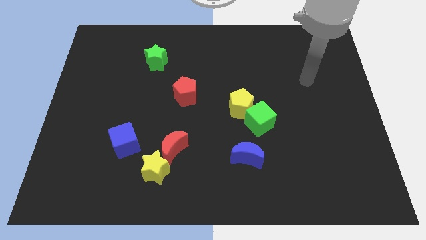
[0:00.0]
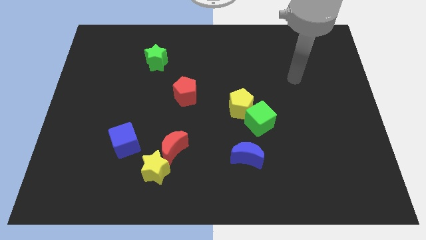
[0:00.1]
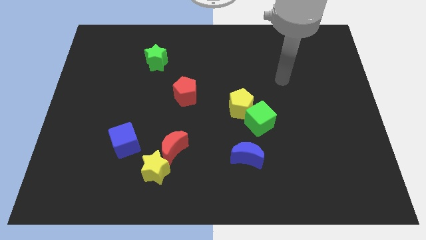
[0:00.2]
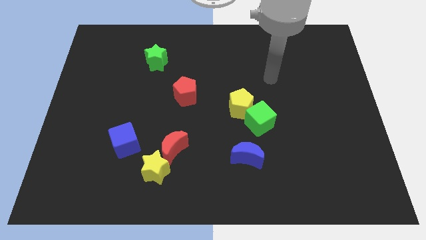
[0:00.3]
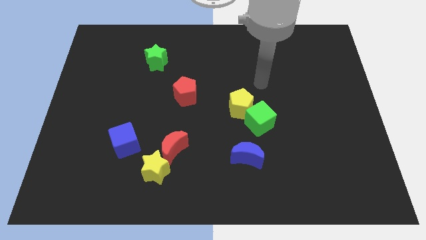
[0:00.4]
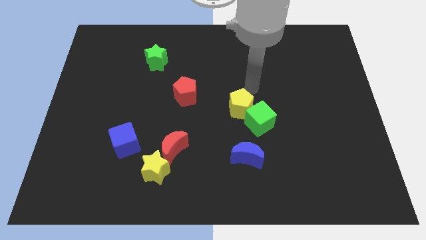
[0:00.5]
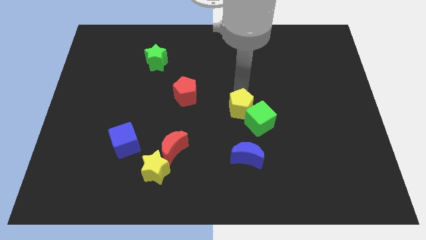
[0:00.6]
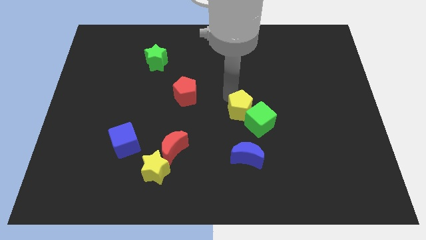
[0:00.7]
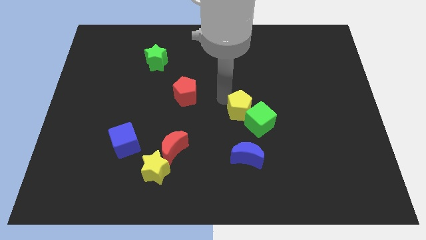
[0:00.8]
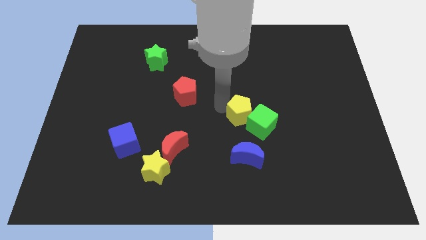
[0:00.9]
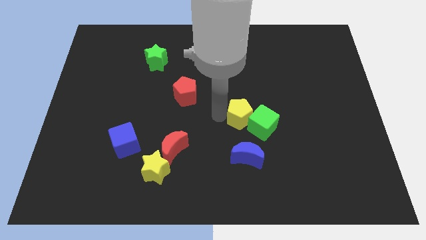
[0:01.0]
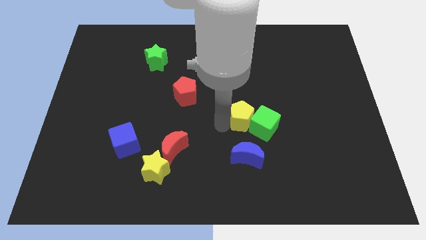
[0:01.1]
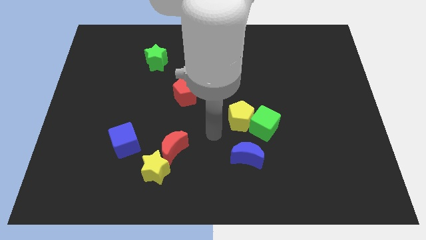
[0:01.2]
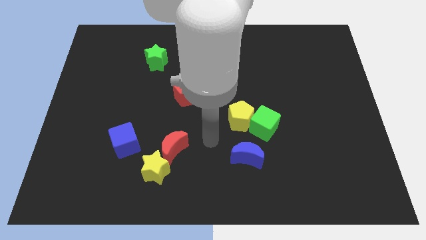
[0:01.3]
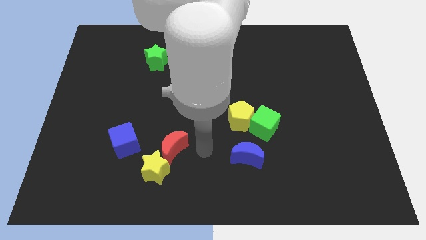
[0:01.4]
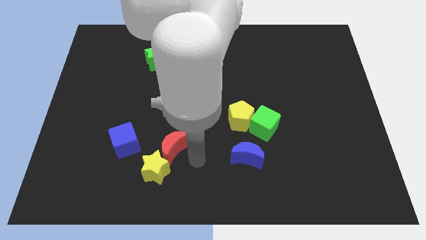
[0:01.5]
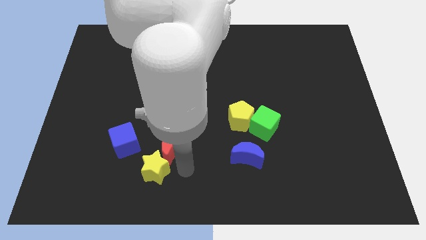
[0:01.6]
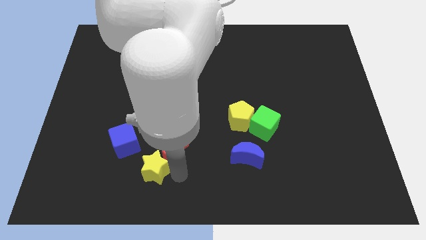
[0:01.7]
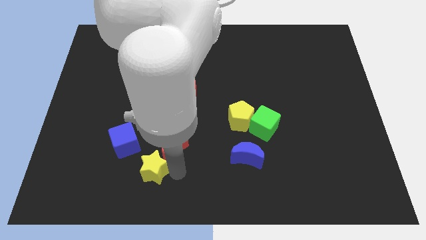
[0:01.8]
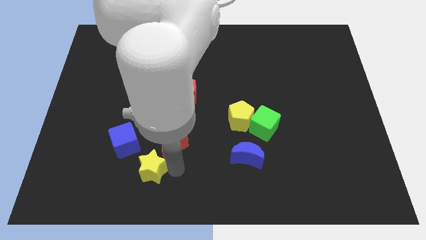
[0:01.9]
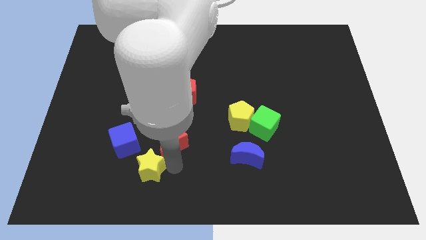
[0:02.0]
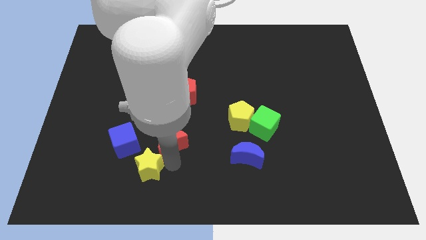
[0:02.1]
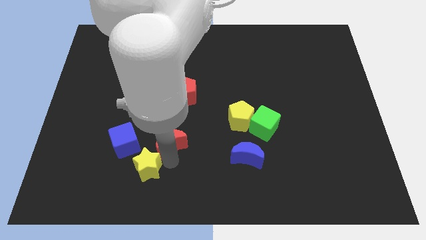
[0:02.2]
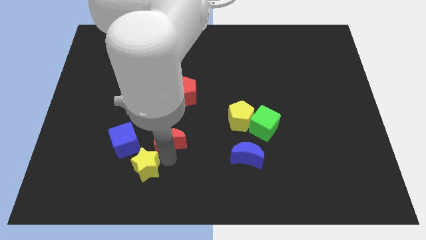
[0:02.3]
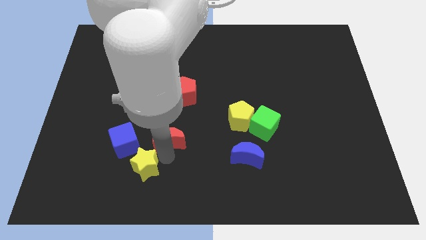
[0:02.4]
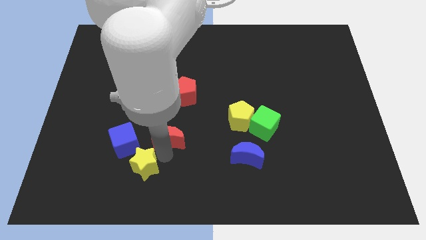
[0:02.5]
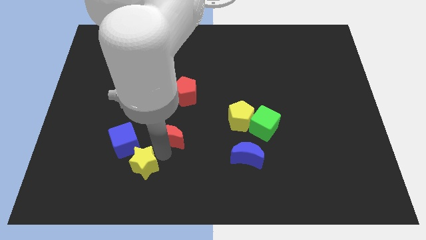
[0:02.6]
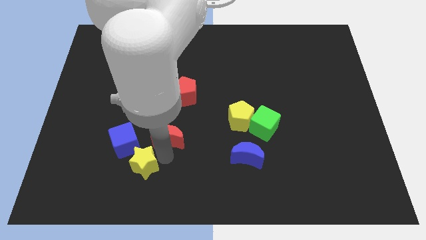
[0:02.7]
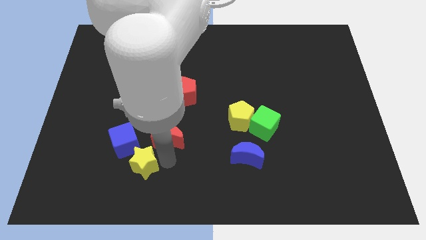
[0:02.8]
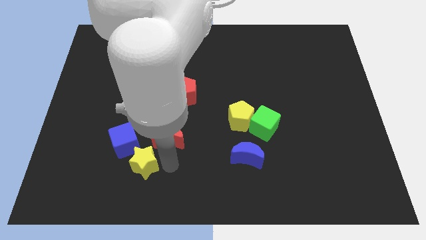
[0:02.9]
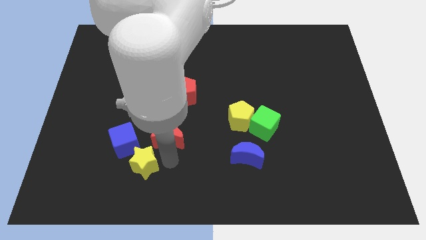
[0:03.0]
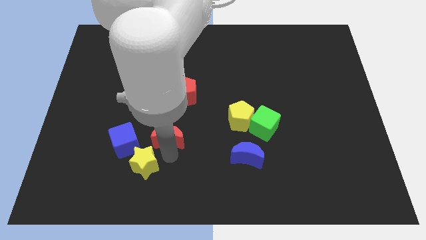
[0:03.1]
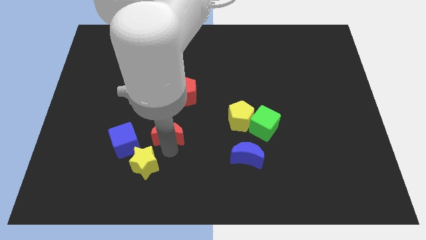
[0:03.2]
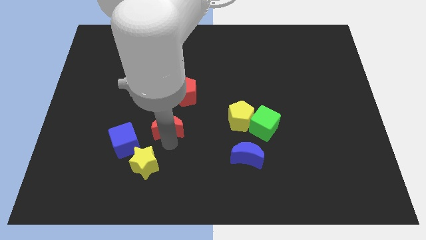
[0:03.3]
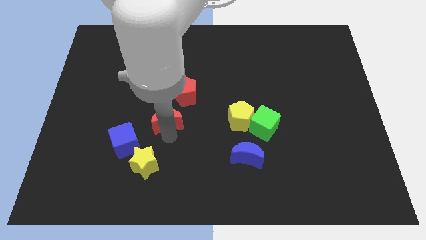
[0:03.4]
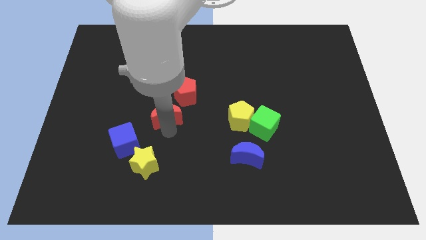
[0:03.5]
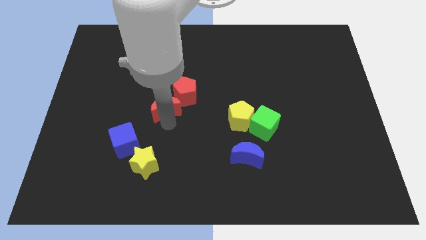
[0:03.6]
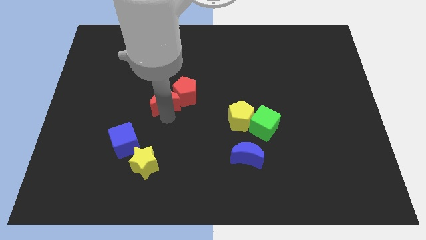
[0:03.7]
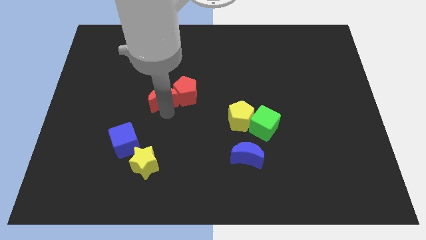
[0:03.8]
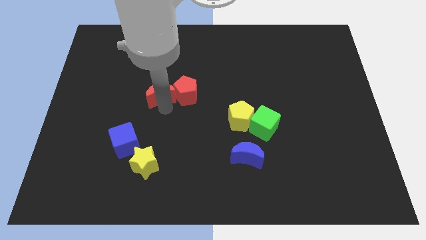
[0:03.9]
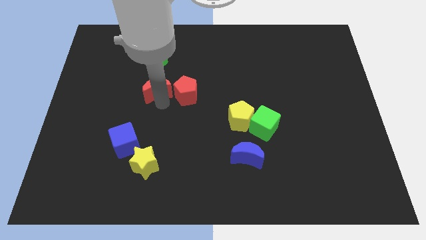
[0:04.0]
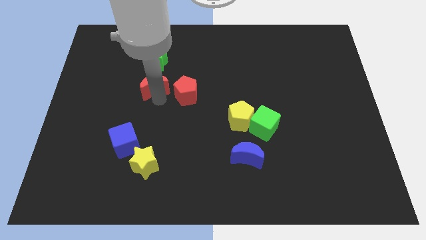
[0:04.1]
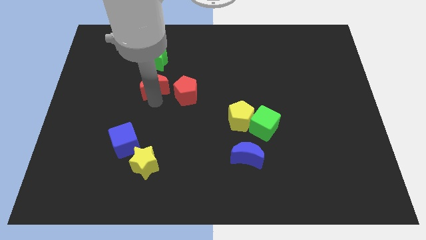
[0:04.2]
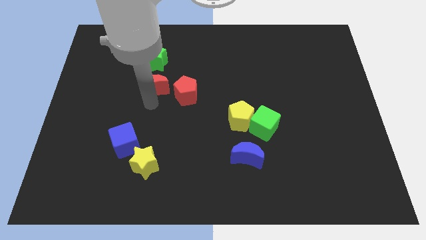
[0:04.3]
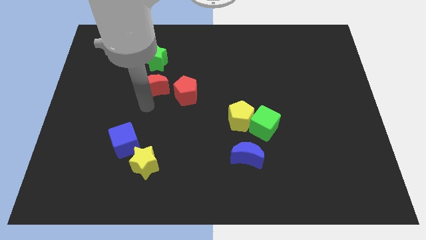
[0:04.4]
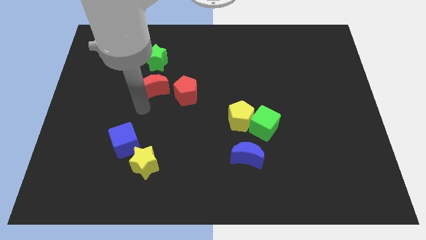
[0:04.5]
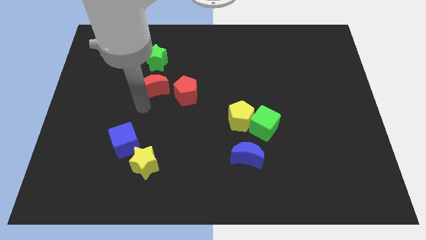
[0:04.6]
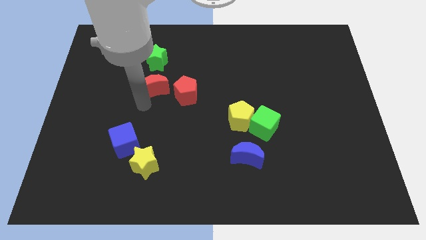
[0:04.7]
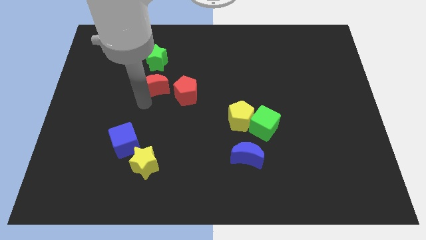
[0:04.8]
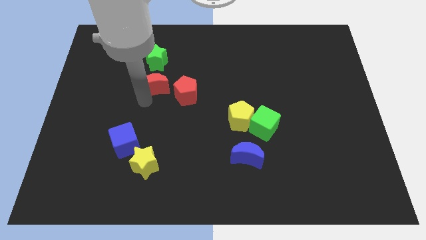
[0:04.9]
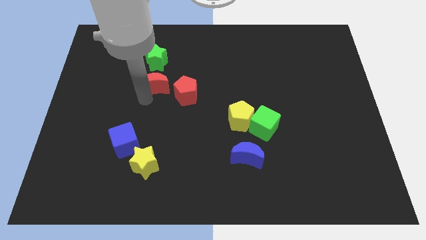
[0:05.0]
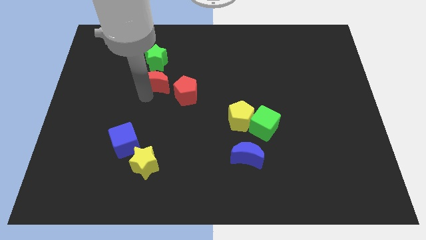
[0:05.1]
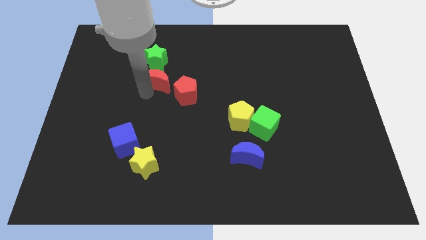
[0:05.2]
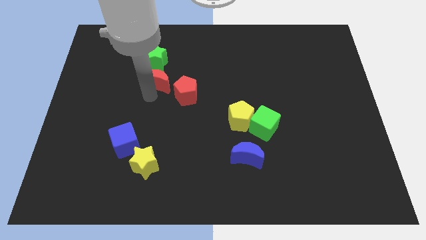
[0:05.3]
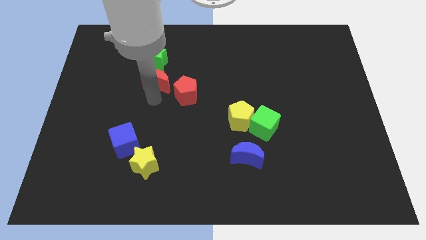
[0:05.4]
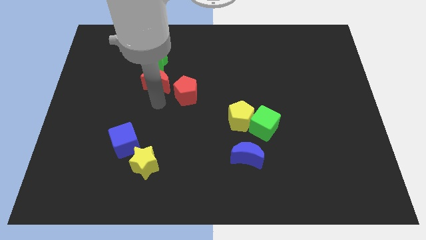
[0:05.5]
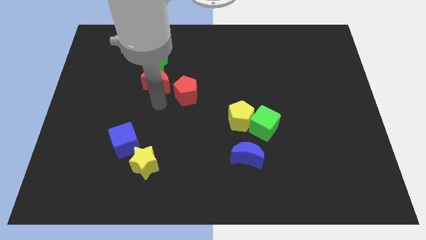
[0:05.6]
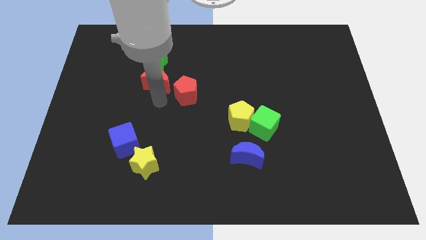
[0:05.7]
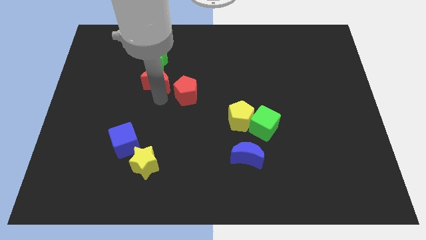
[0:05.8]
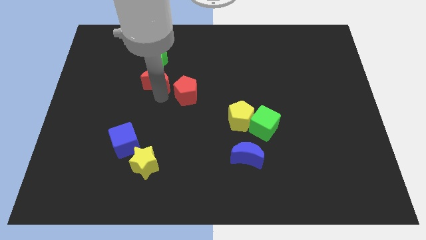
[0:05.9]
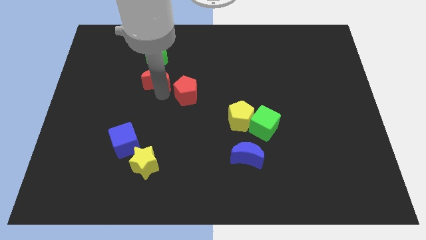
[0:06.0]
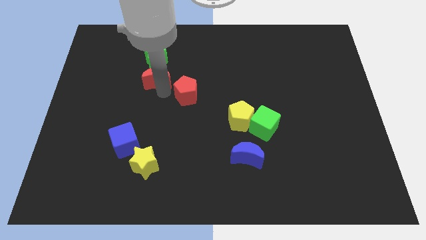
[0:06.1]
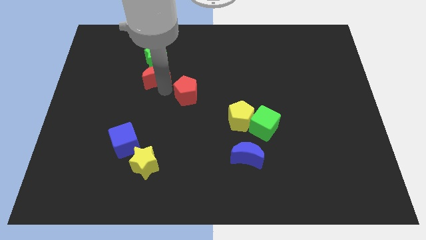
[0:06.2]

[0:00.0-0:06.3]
slide the red moon towards the green star

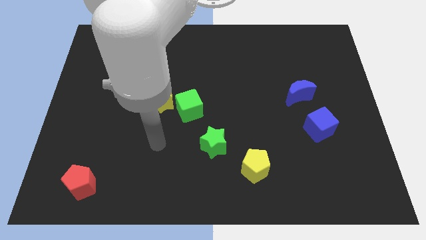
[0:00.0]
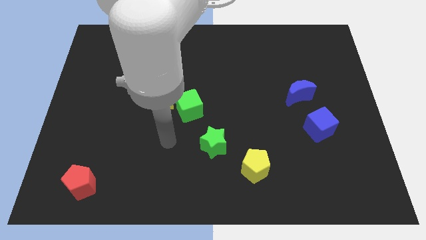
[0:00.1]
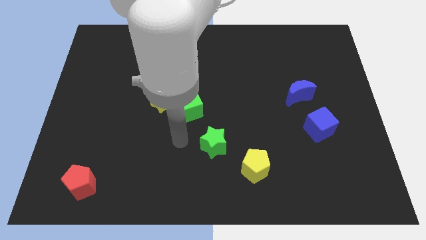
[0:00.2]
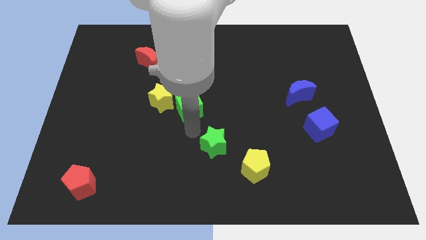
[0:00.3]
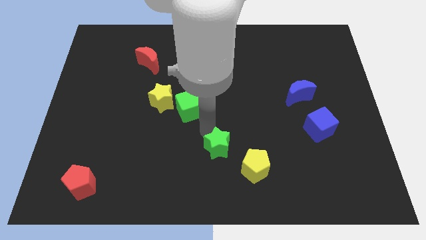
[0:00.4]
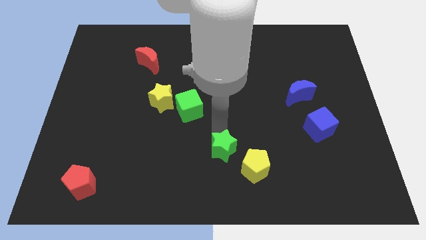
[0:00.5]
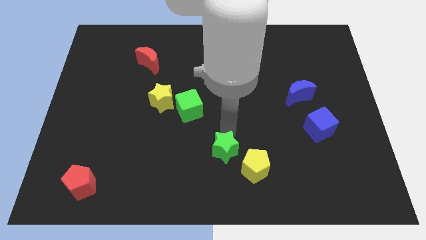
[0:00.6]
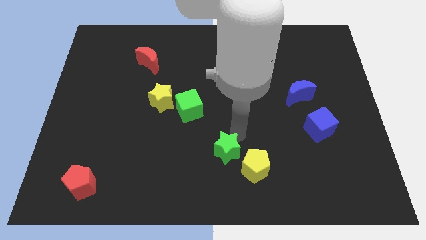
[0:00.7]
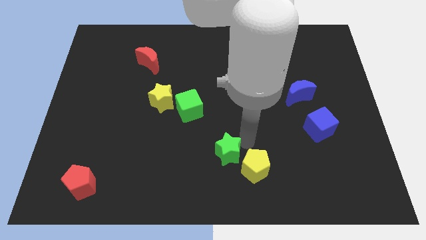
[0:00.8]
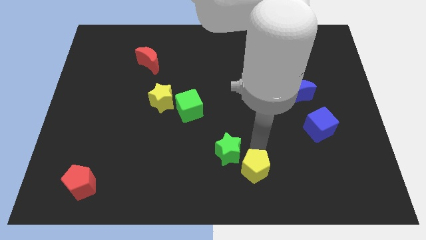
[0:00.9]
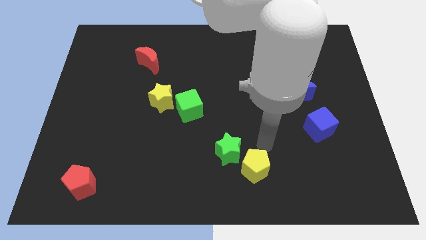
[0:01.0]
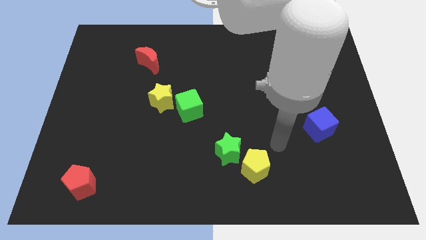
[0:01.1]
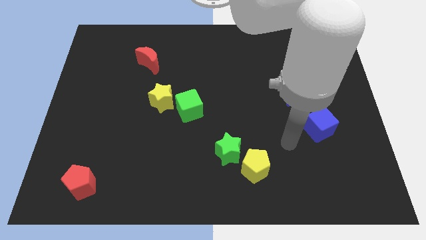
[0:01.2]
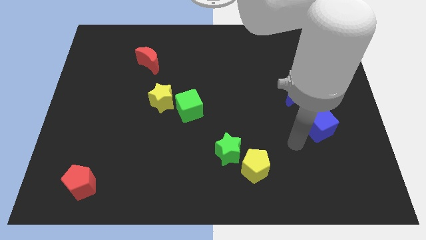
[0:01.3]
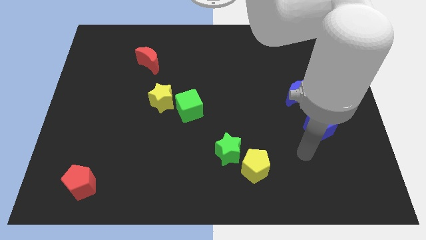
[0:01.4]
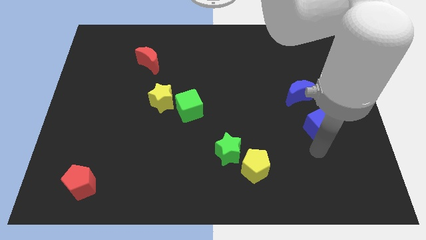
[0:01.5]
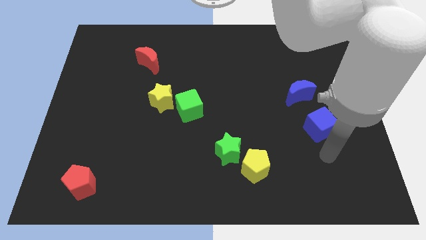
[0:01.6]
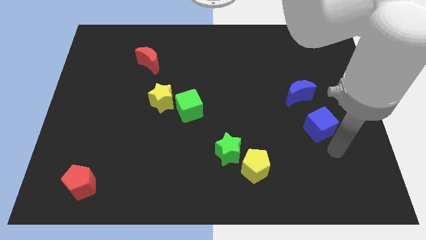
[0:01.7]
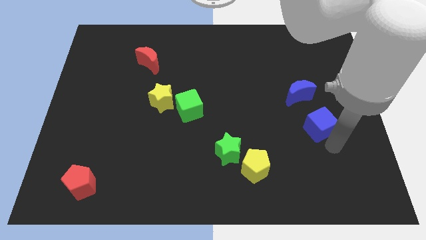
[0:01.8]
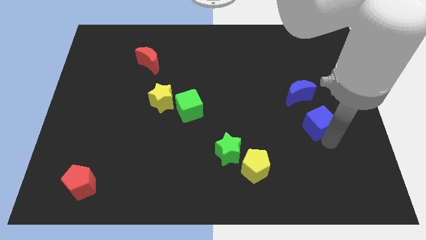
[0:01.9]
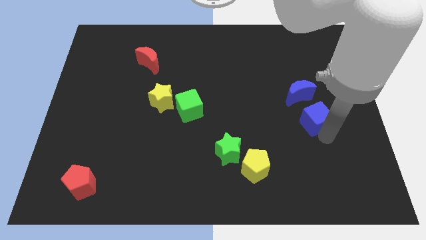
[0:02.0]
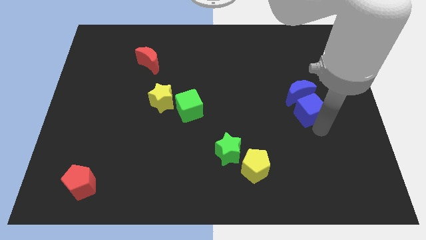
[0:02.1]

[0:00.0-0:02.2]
put the blue cube to the blue moon
